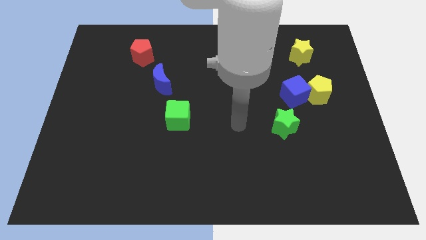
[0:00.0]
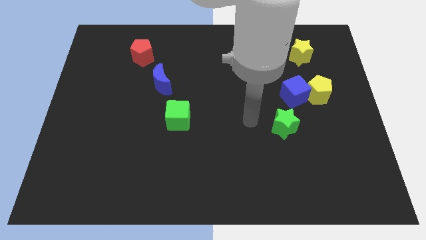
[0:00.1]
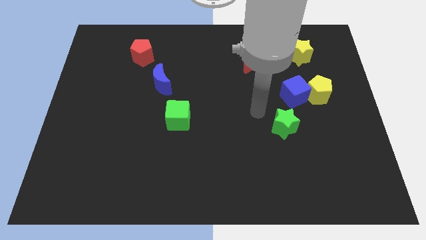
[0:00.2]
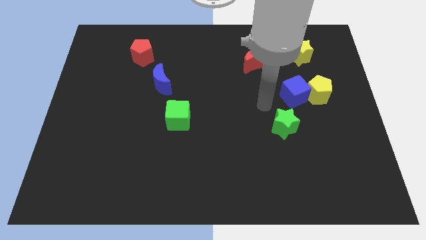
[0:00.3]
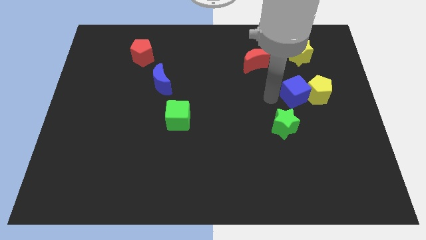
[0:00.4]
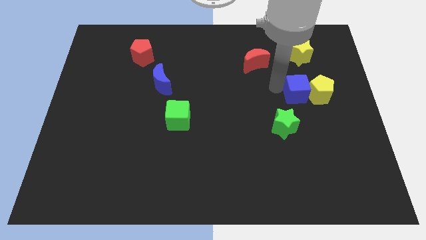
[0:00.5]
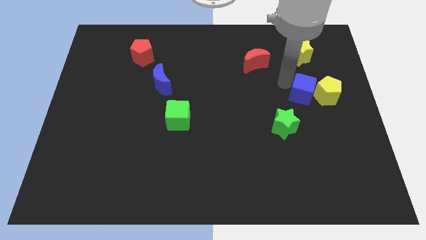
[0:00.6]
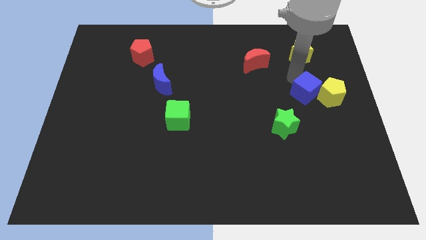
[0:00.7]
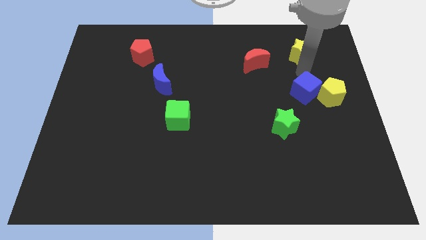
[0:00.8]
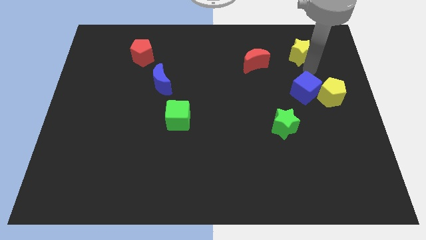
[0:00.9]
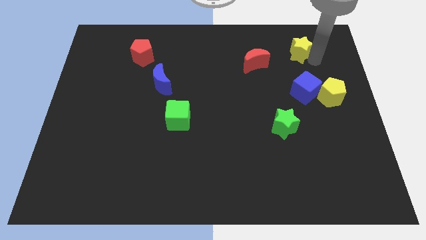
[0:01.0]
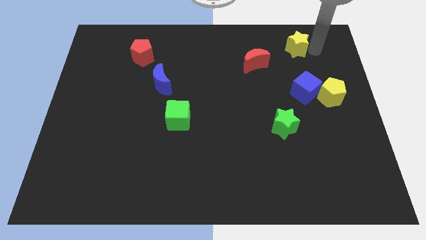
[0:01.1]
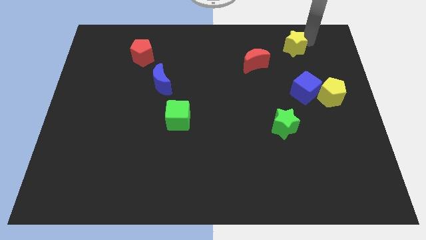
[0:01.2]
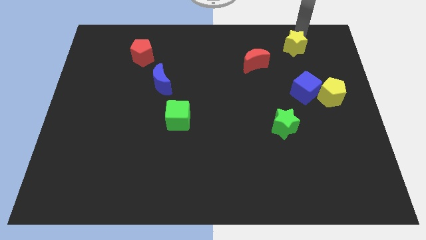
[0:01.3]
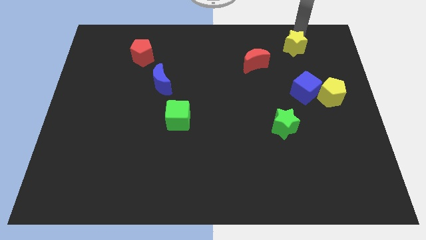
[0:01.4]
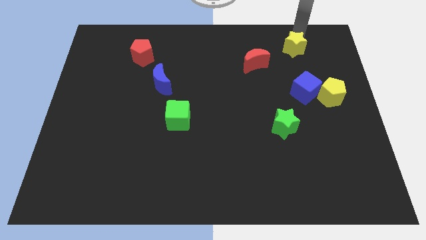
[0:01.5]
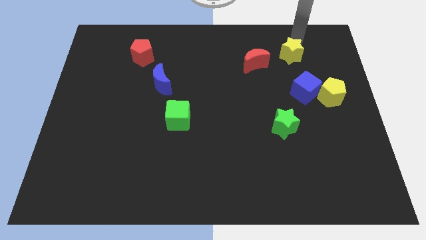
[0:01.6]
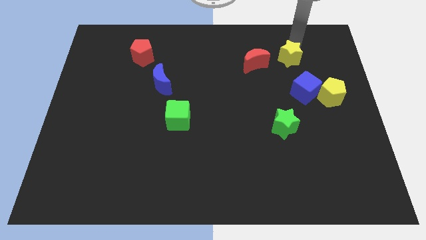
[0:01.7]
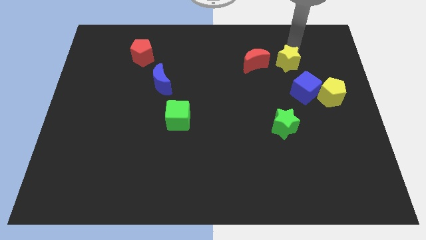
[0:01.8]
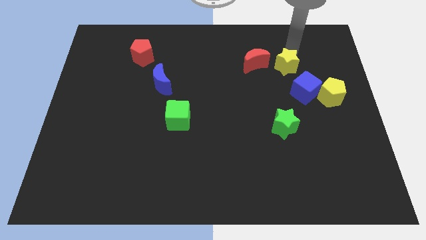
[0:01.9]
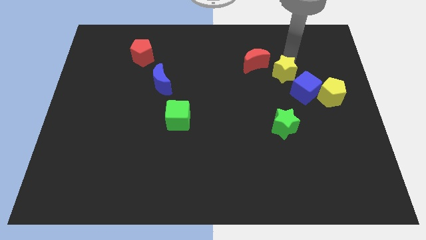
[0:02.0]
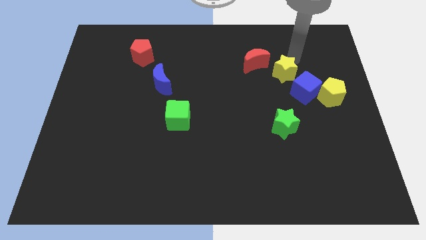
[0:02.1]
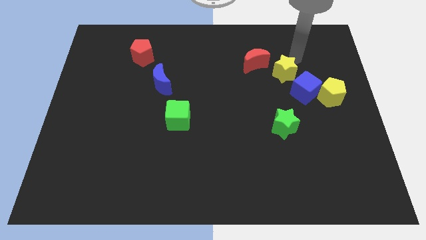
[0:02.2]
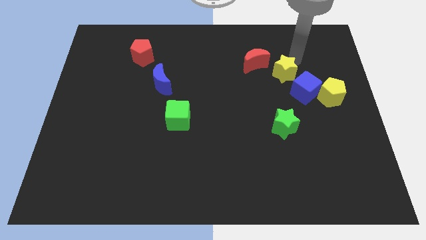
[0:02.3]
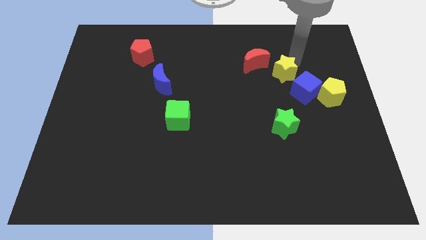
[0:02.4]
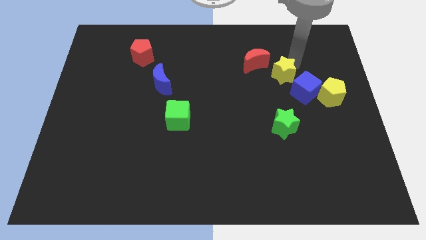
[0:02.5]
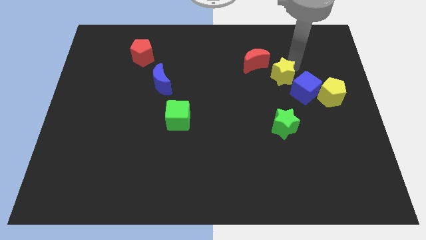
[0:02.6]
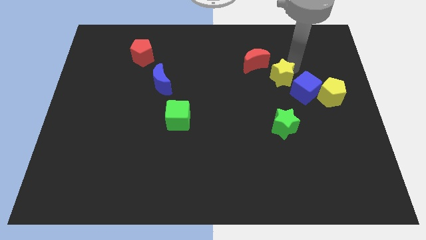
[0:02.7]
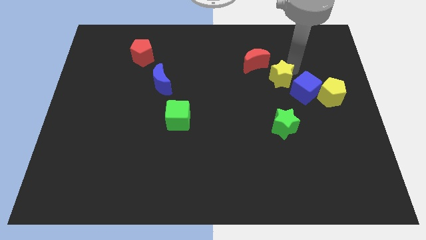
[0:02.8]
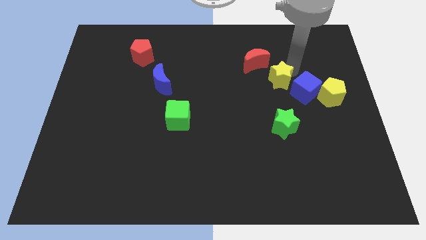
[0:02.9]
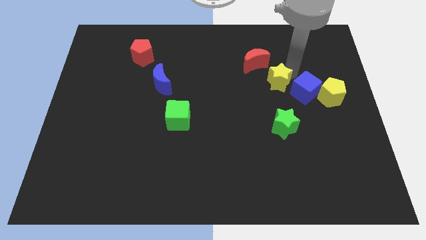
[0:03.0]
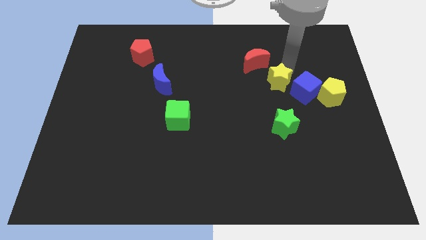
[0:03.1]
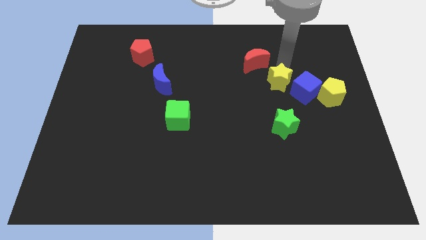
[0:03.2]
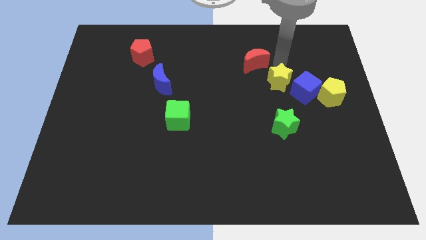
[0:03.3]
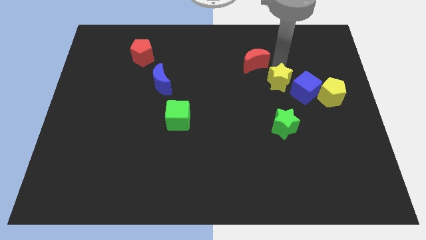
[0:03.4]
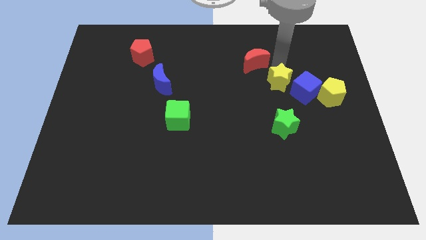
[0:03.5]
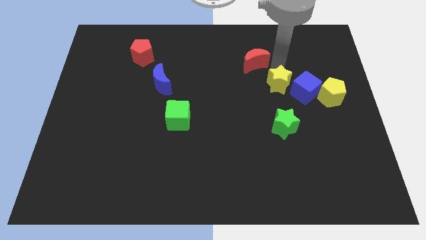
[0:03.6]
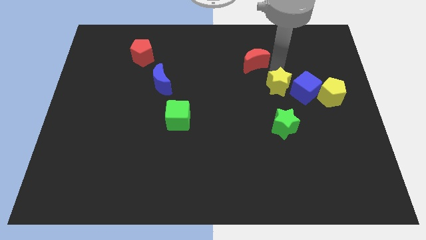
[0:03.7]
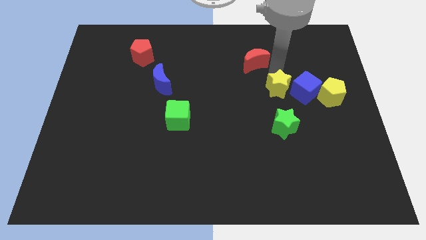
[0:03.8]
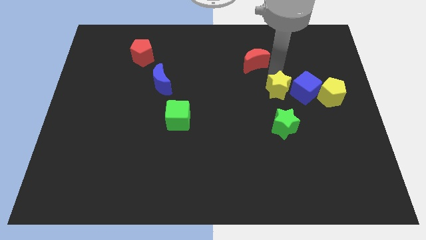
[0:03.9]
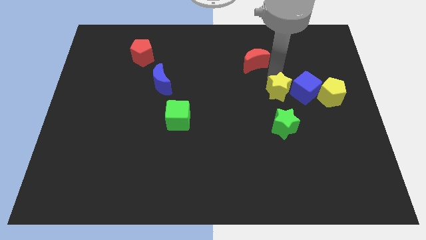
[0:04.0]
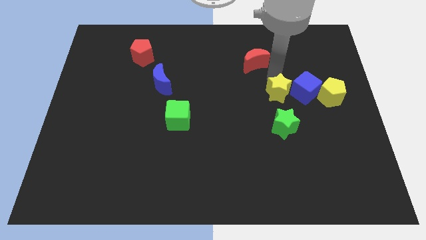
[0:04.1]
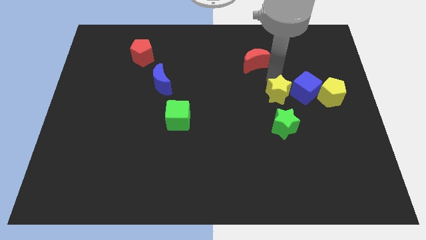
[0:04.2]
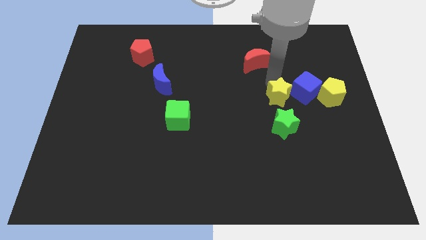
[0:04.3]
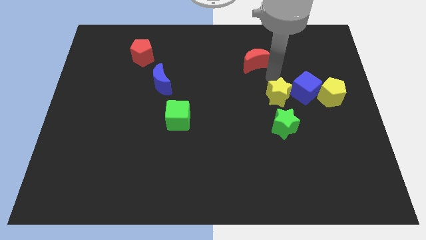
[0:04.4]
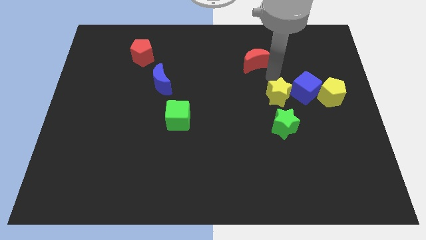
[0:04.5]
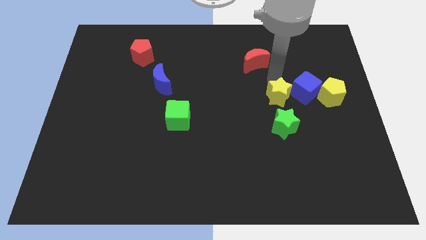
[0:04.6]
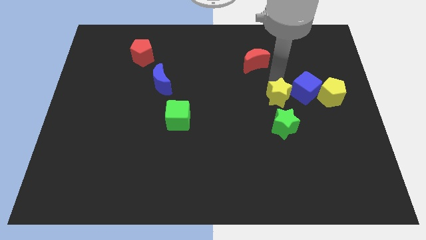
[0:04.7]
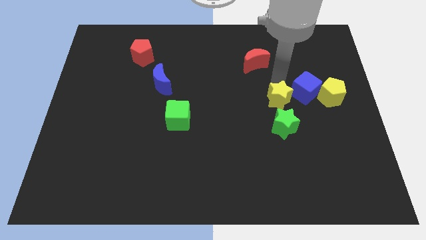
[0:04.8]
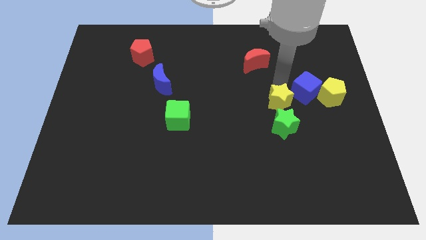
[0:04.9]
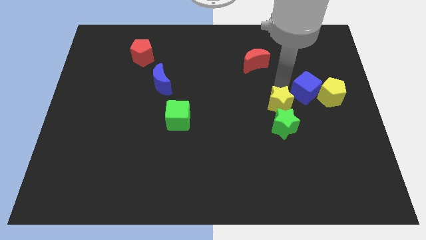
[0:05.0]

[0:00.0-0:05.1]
slide the yellow star close to the green star

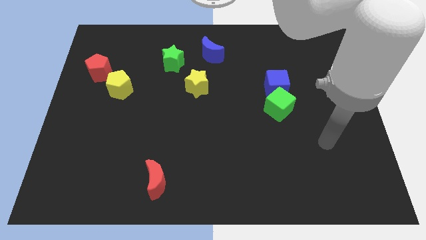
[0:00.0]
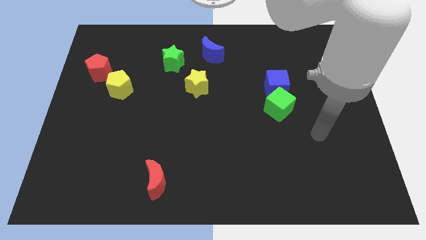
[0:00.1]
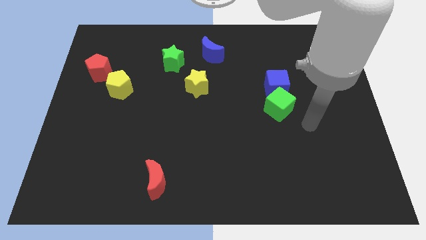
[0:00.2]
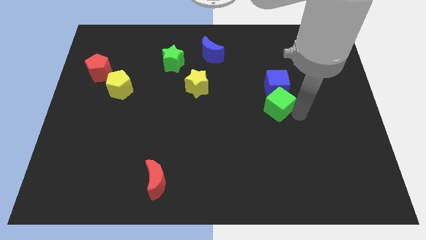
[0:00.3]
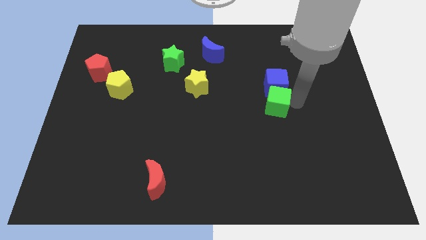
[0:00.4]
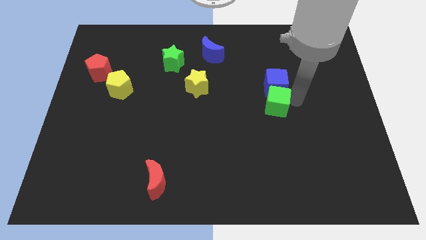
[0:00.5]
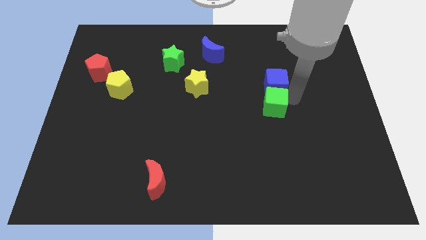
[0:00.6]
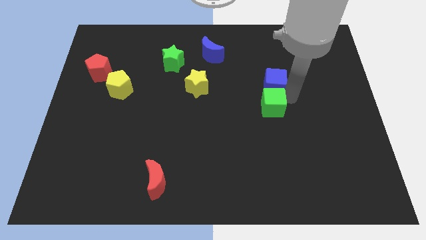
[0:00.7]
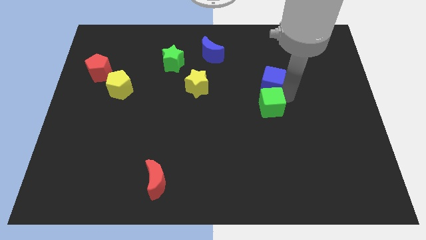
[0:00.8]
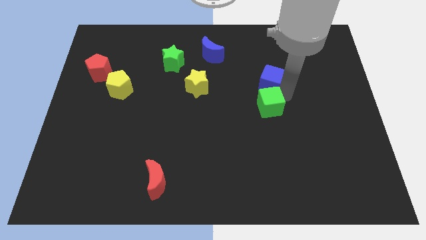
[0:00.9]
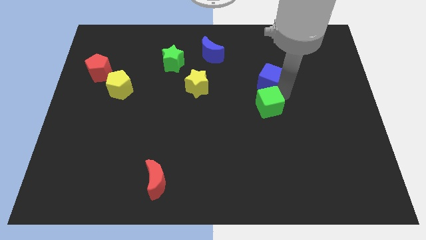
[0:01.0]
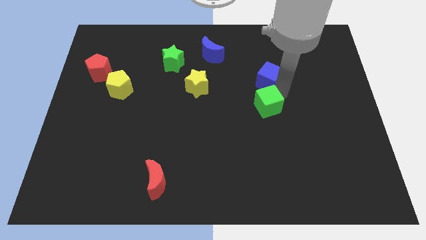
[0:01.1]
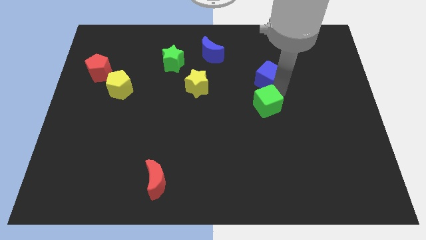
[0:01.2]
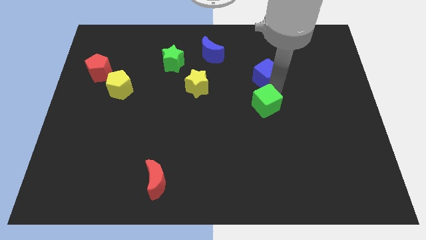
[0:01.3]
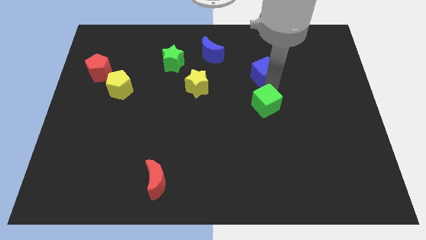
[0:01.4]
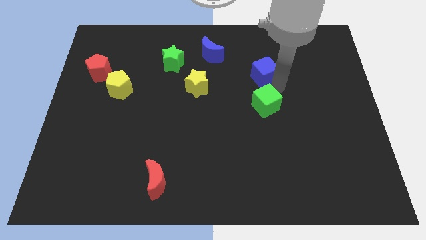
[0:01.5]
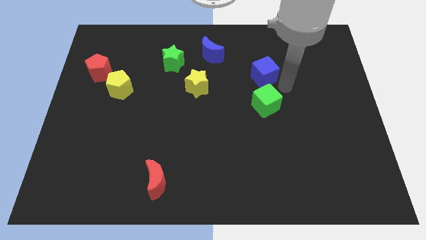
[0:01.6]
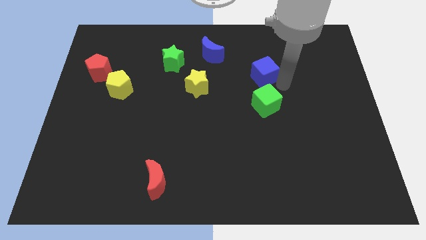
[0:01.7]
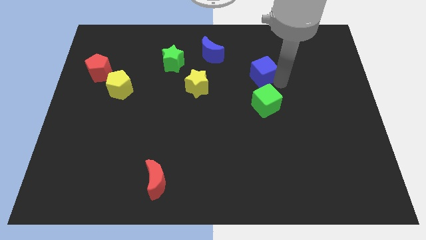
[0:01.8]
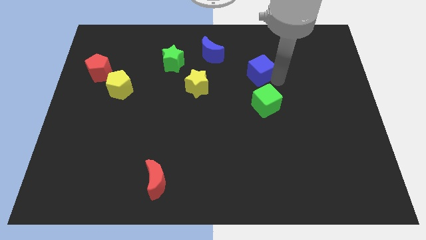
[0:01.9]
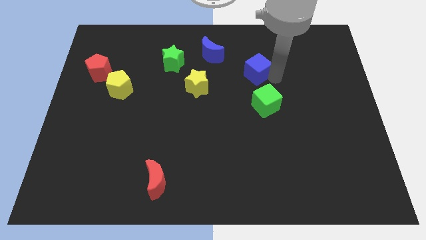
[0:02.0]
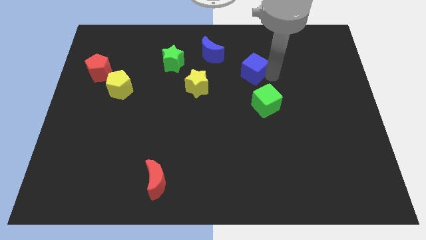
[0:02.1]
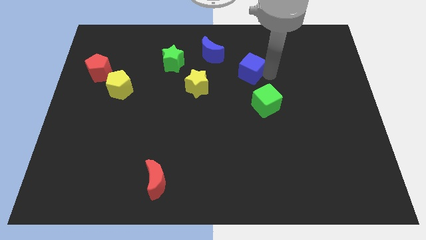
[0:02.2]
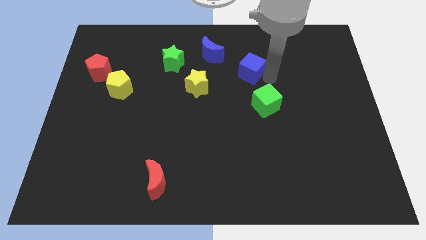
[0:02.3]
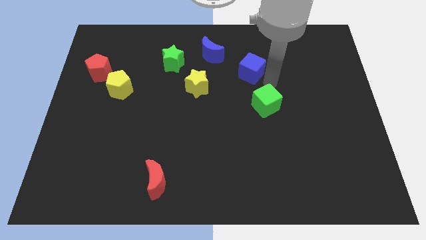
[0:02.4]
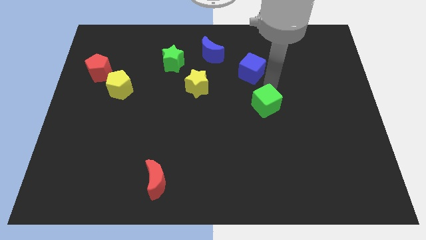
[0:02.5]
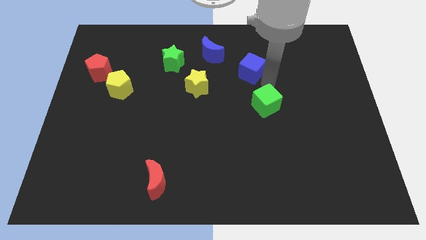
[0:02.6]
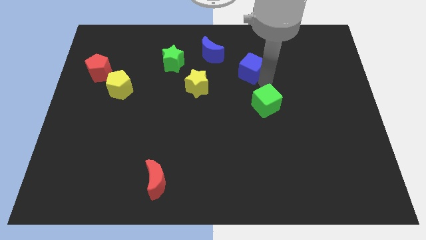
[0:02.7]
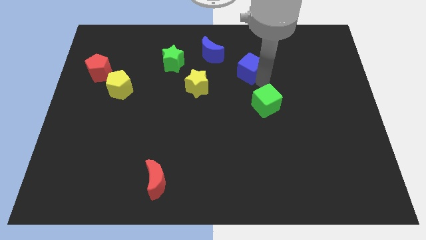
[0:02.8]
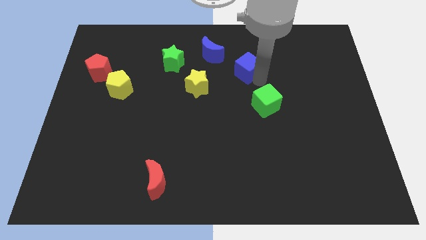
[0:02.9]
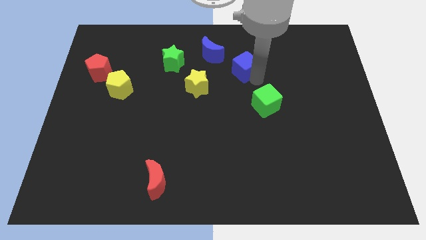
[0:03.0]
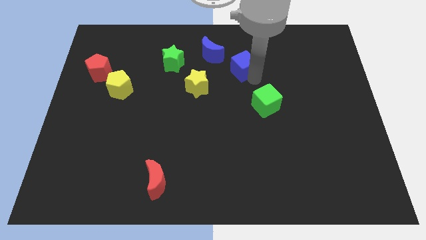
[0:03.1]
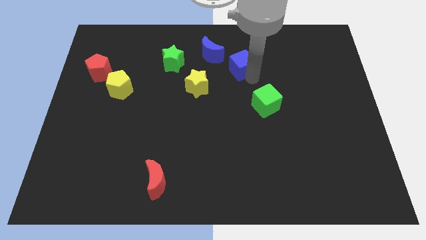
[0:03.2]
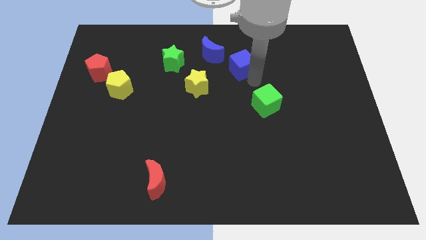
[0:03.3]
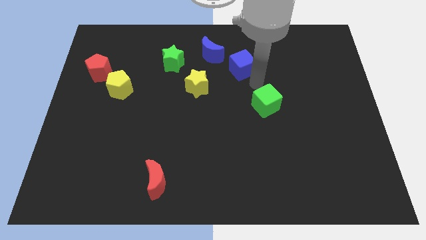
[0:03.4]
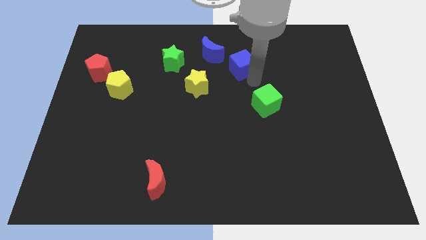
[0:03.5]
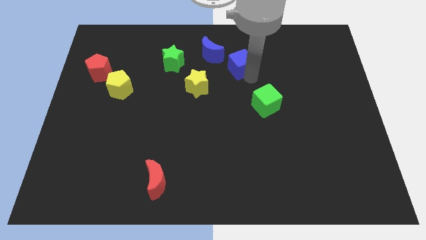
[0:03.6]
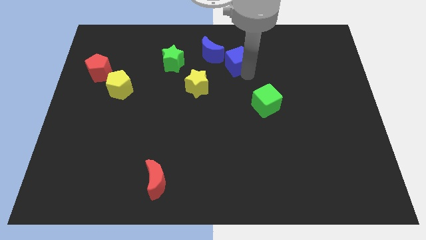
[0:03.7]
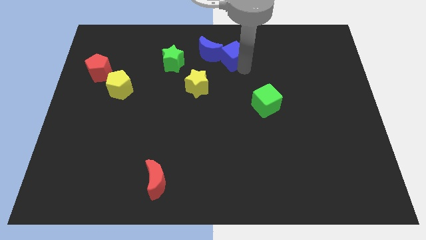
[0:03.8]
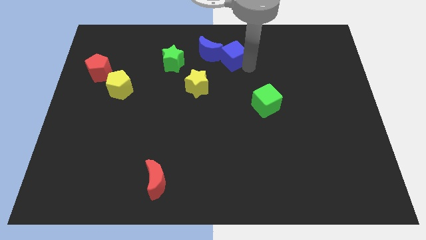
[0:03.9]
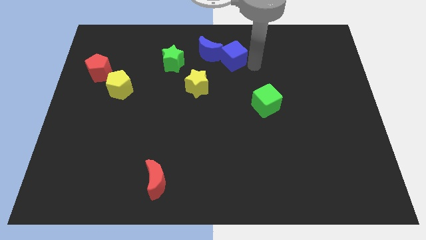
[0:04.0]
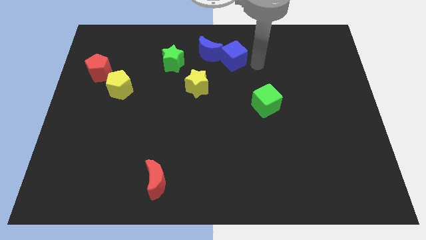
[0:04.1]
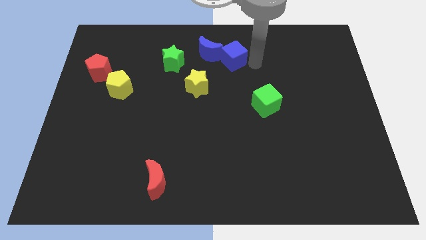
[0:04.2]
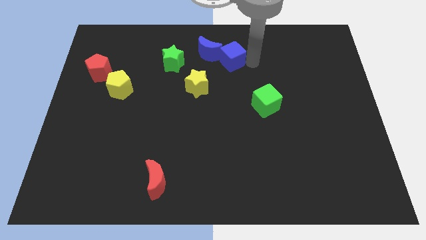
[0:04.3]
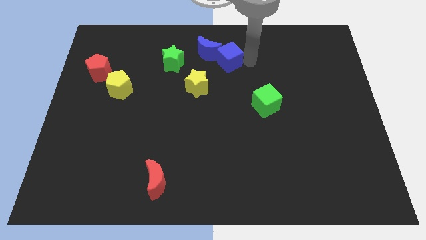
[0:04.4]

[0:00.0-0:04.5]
slide the blue cube to the blue moon
